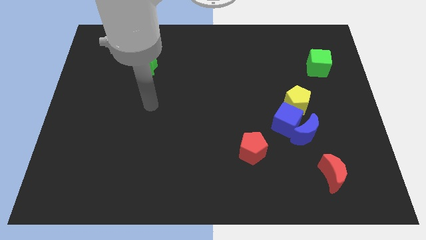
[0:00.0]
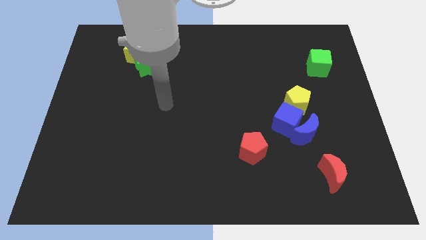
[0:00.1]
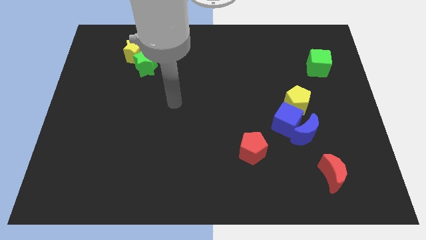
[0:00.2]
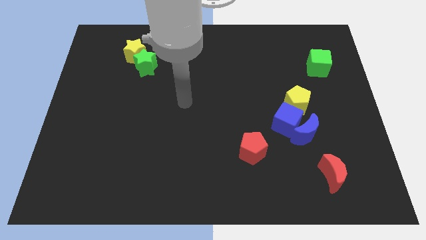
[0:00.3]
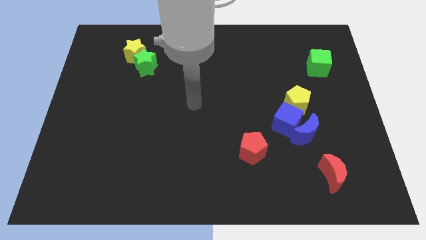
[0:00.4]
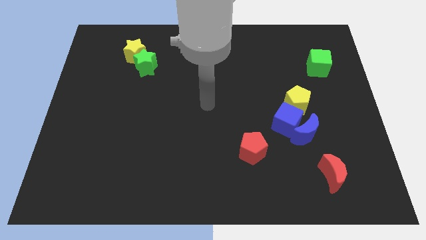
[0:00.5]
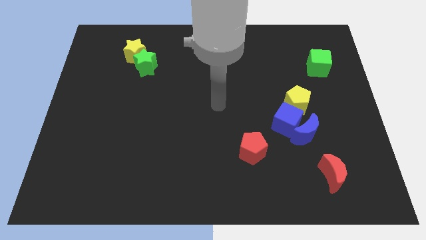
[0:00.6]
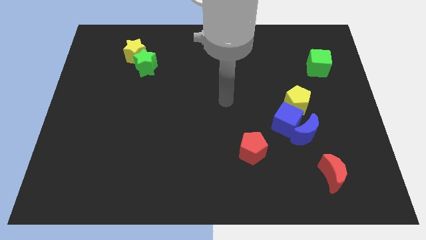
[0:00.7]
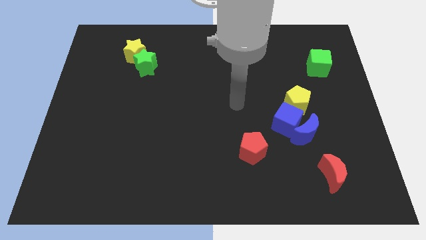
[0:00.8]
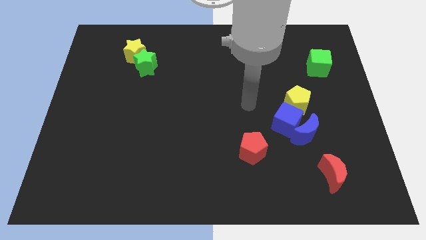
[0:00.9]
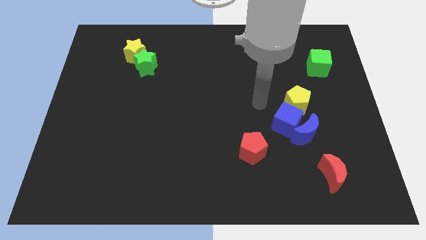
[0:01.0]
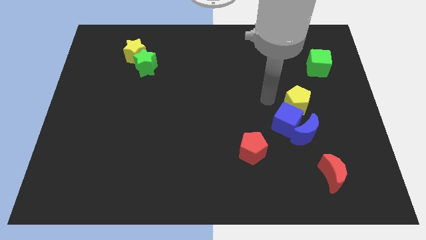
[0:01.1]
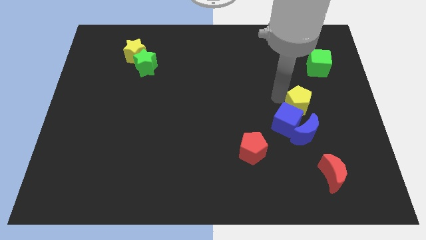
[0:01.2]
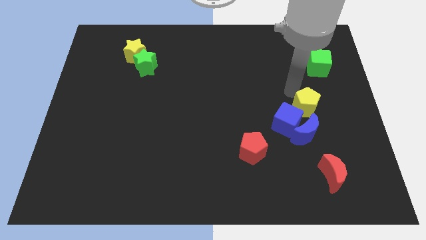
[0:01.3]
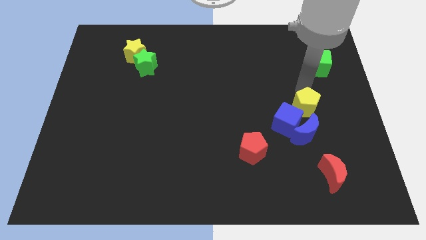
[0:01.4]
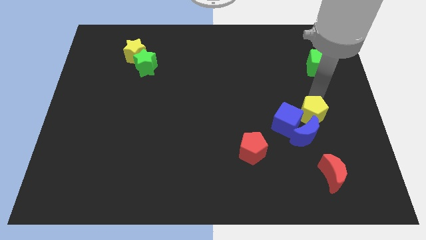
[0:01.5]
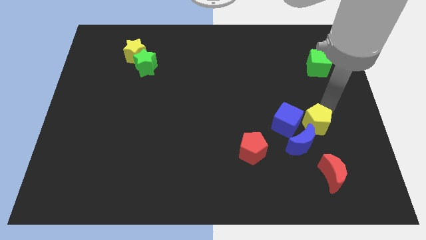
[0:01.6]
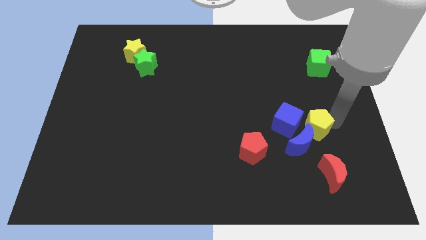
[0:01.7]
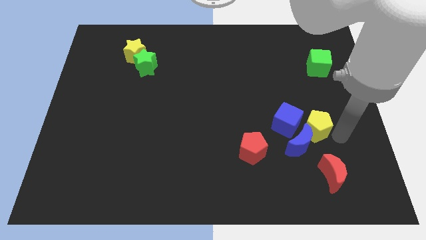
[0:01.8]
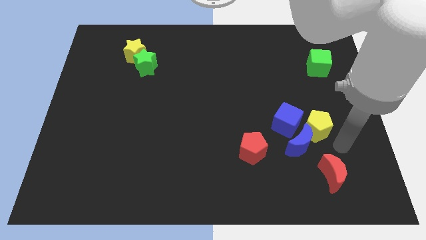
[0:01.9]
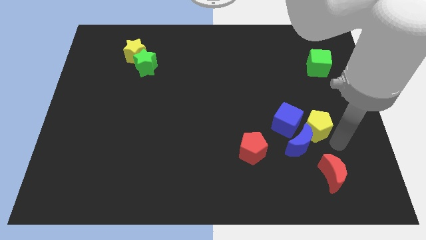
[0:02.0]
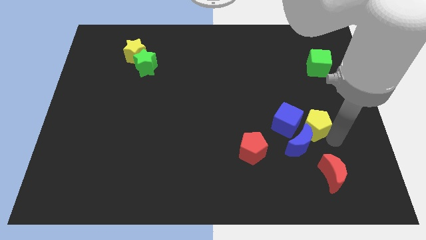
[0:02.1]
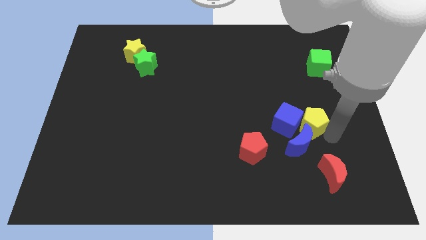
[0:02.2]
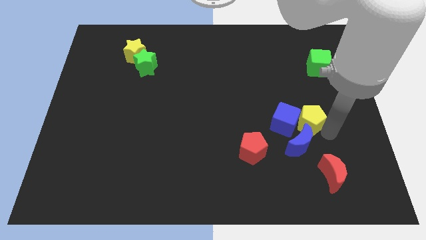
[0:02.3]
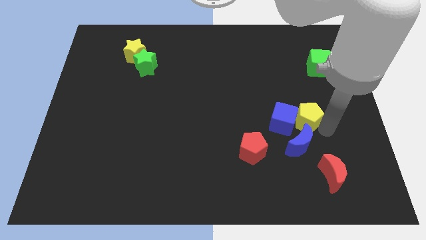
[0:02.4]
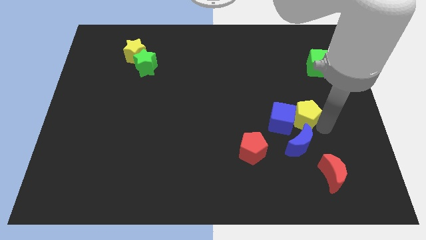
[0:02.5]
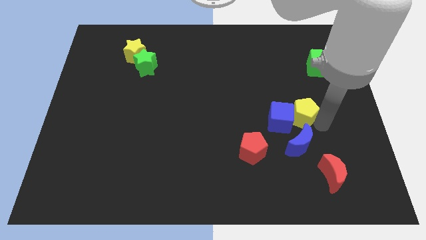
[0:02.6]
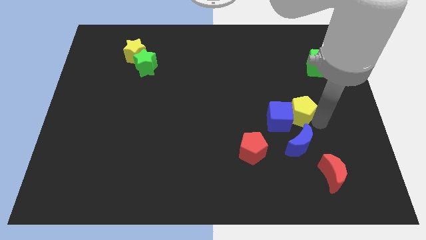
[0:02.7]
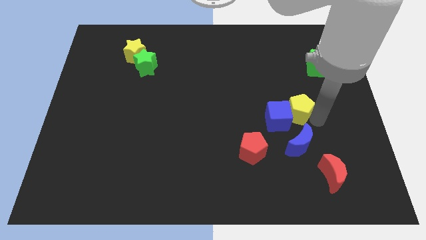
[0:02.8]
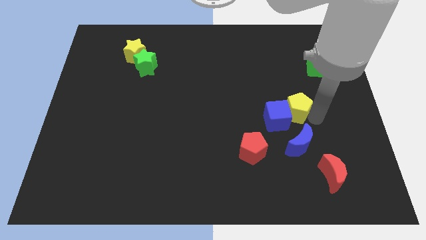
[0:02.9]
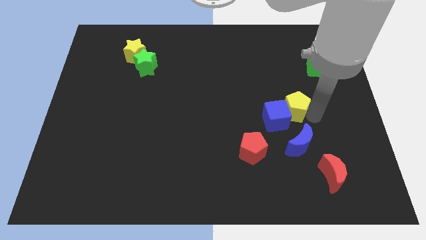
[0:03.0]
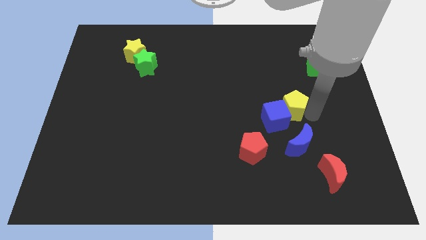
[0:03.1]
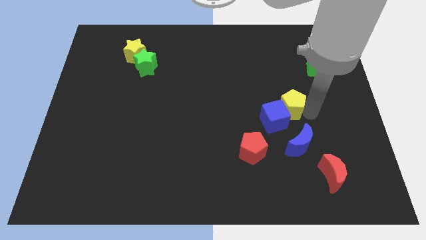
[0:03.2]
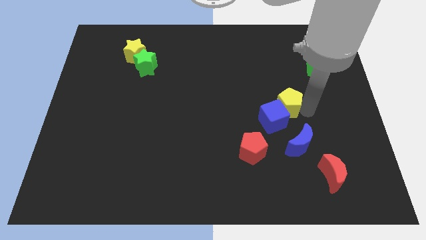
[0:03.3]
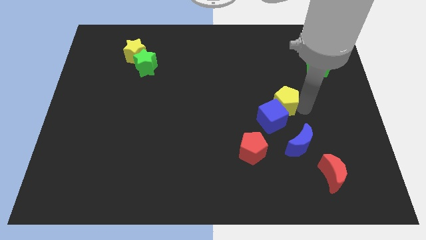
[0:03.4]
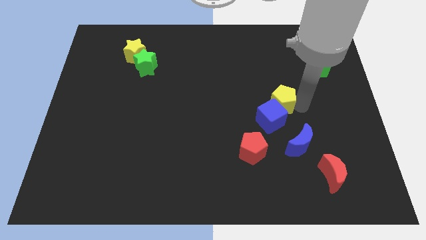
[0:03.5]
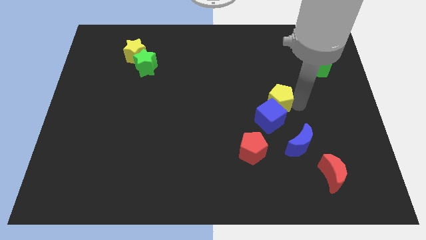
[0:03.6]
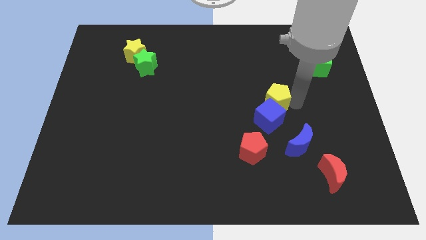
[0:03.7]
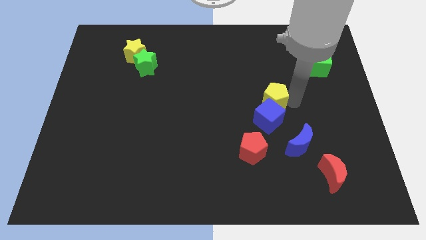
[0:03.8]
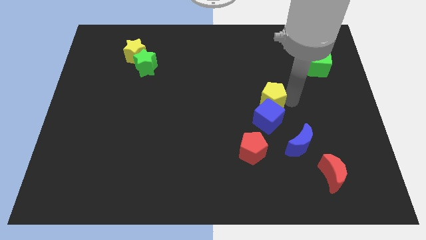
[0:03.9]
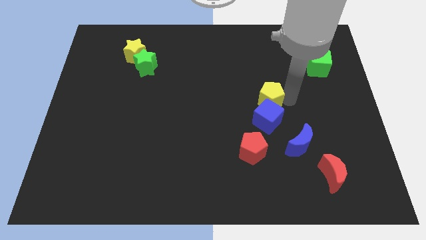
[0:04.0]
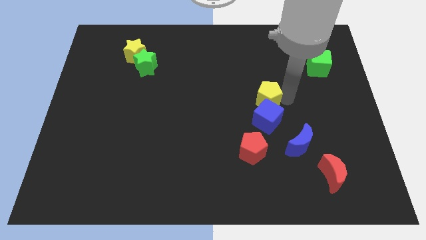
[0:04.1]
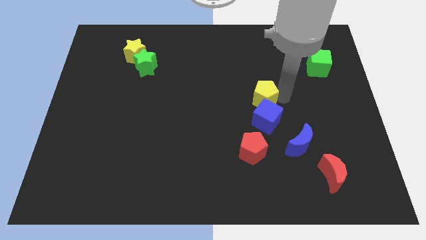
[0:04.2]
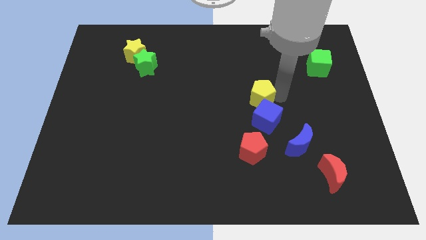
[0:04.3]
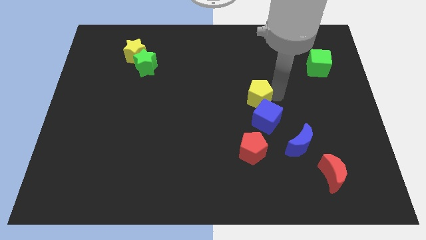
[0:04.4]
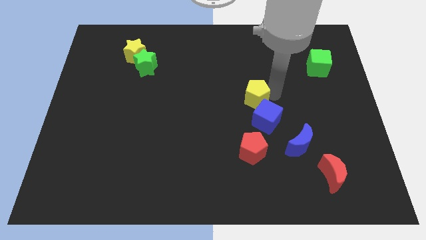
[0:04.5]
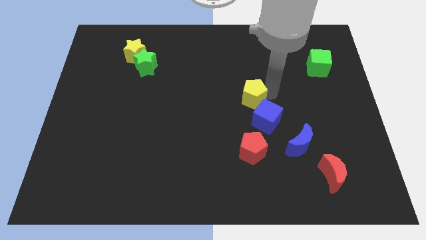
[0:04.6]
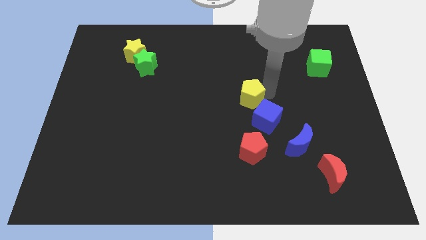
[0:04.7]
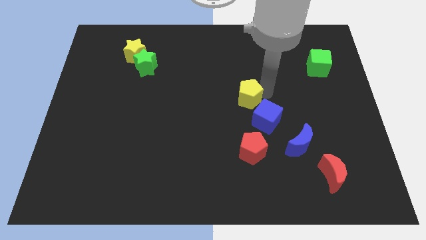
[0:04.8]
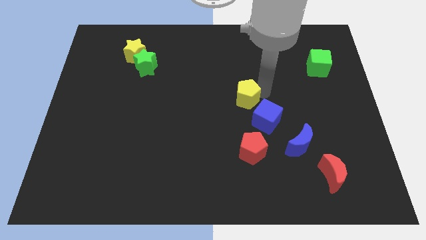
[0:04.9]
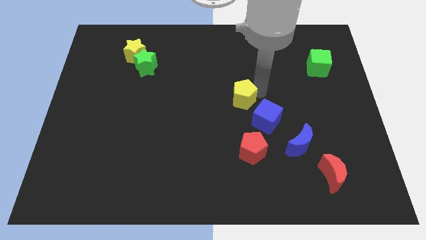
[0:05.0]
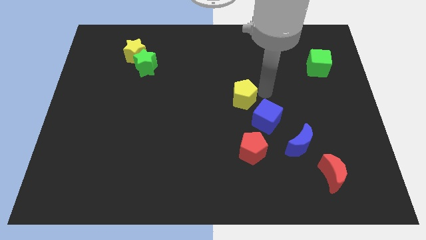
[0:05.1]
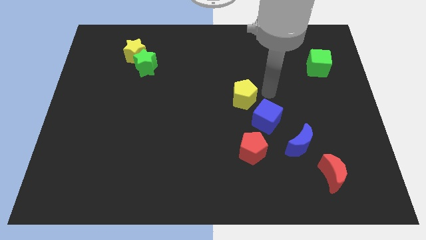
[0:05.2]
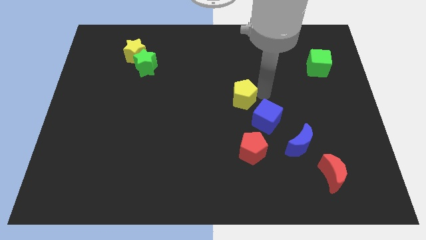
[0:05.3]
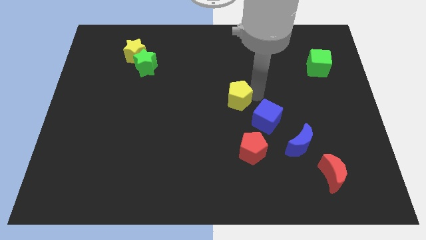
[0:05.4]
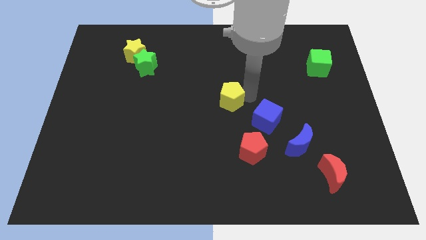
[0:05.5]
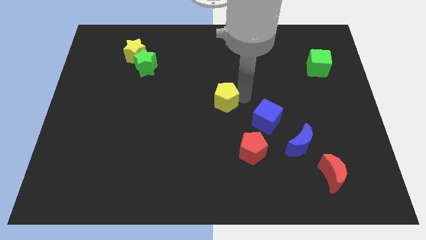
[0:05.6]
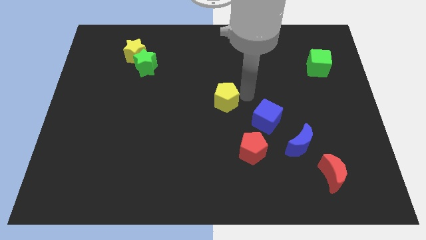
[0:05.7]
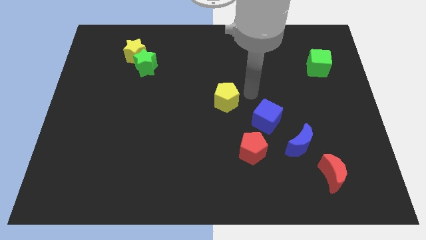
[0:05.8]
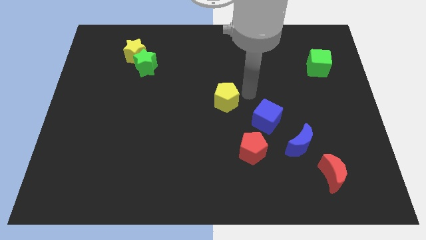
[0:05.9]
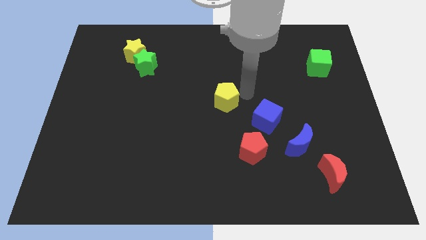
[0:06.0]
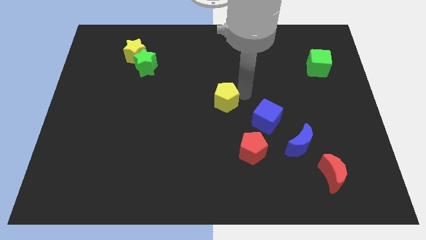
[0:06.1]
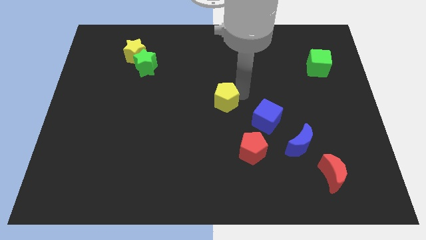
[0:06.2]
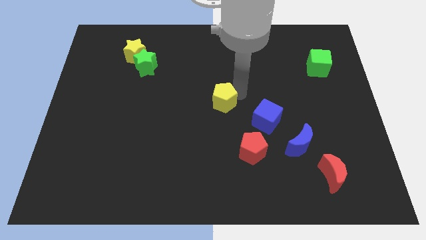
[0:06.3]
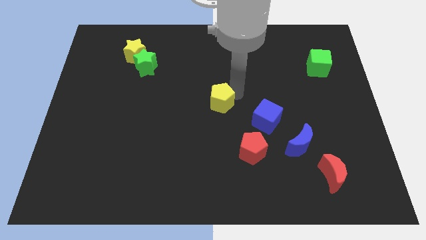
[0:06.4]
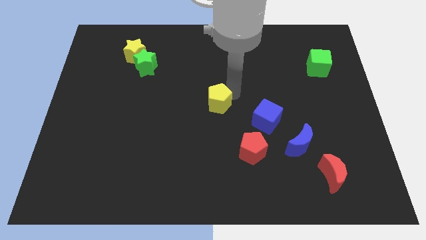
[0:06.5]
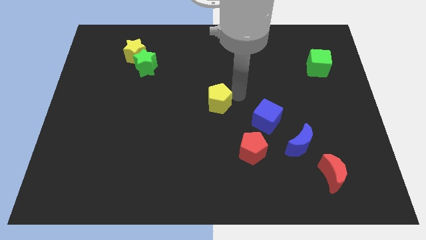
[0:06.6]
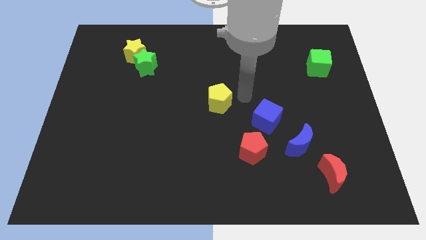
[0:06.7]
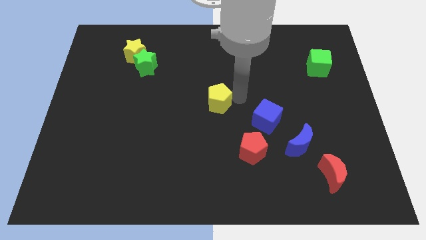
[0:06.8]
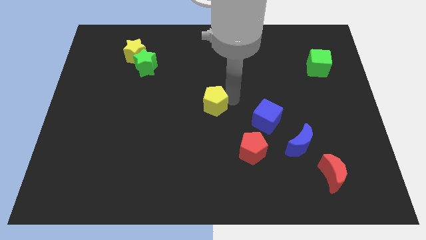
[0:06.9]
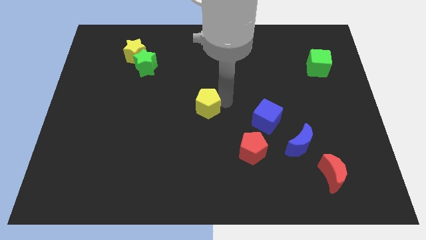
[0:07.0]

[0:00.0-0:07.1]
push the yellow pentagon left

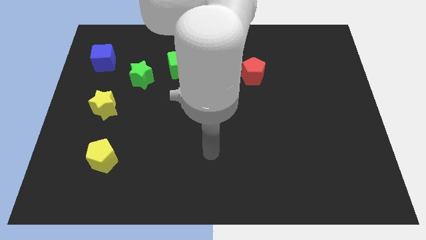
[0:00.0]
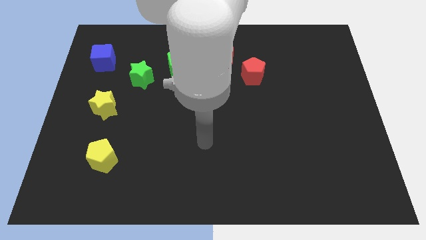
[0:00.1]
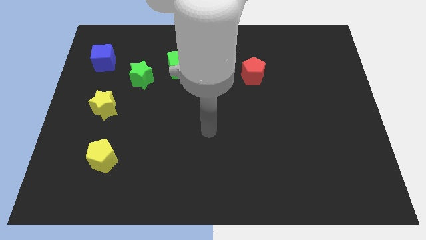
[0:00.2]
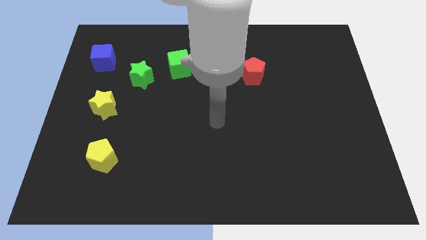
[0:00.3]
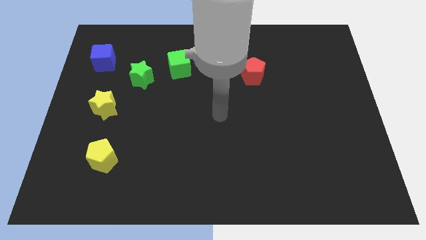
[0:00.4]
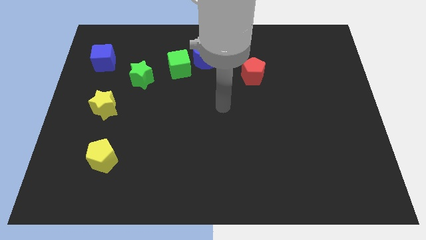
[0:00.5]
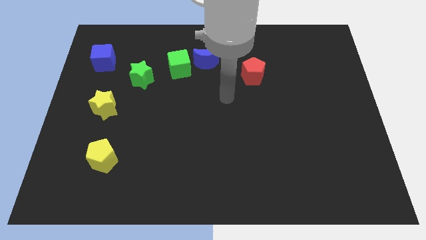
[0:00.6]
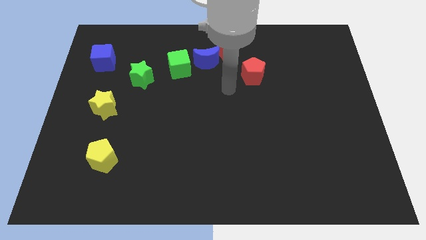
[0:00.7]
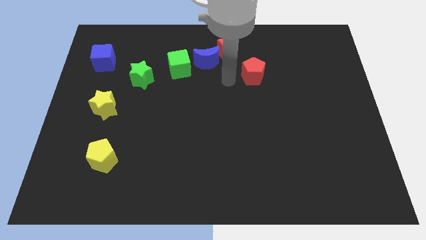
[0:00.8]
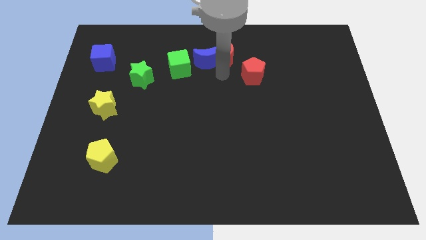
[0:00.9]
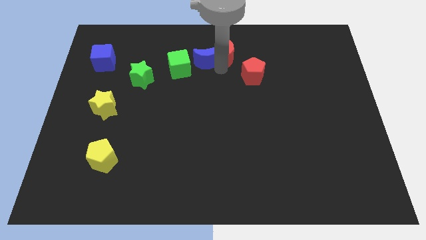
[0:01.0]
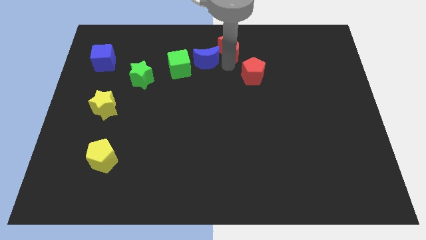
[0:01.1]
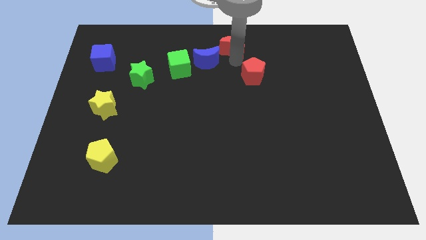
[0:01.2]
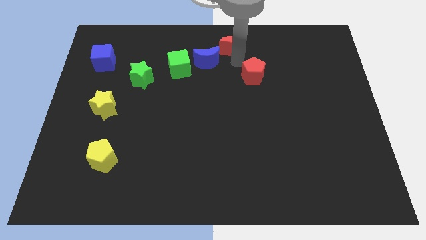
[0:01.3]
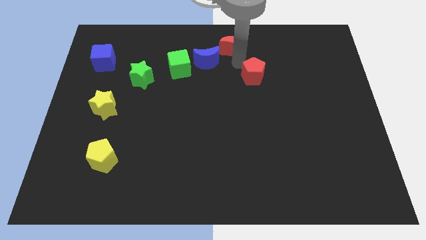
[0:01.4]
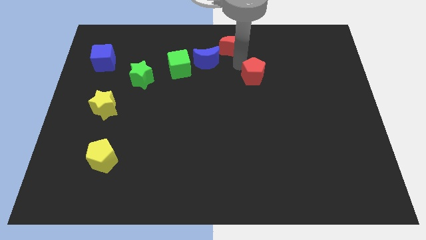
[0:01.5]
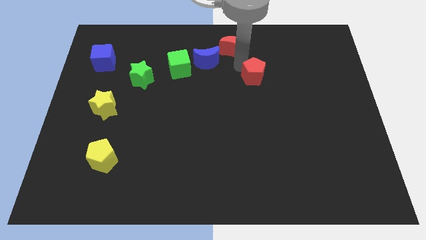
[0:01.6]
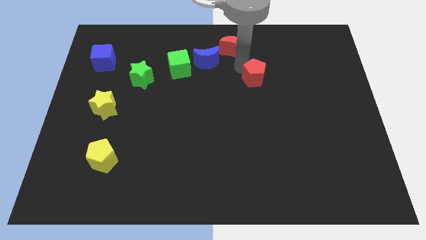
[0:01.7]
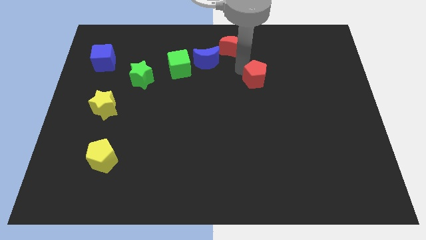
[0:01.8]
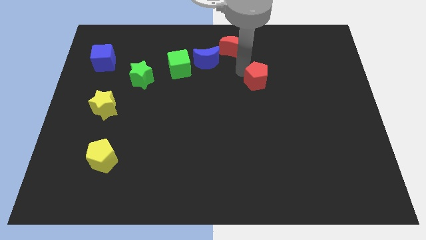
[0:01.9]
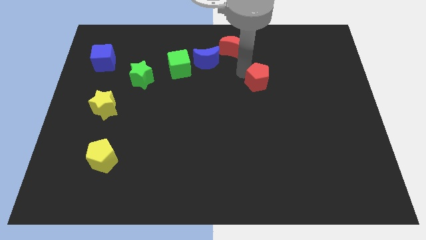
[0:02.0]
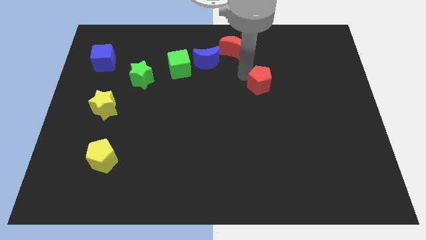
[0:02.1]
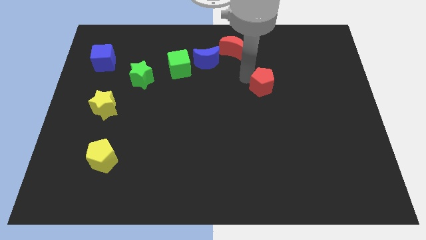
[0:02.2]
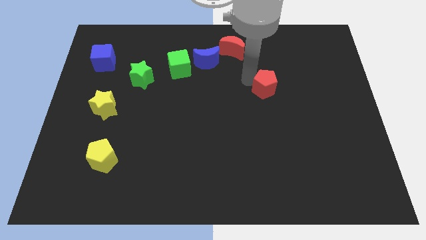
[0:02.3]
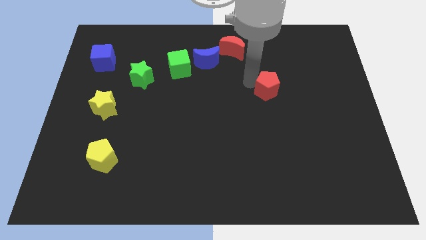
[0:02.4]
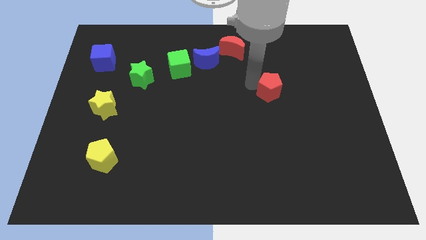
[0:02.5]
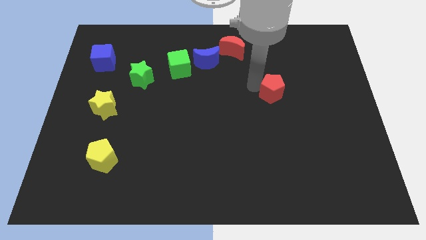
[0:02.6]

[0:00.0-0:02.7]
move the red pentagon a bit diagonally downwards and right
